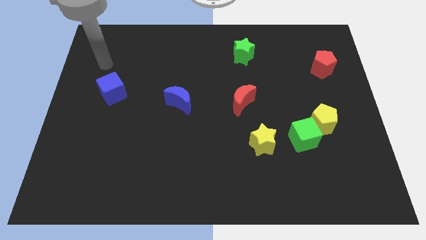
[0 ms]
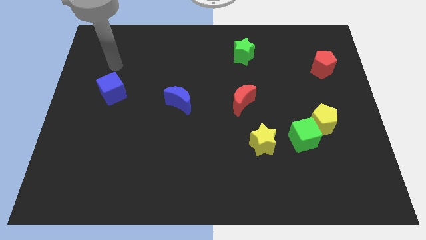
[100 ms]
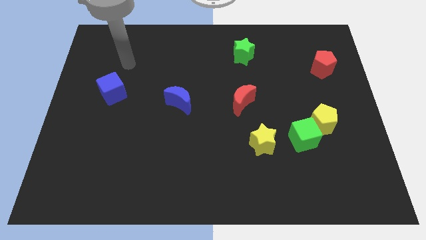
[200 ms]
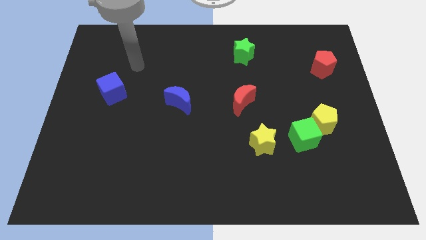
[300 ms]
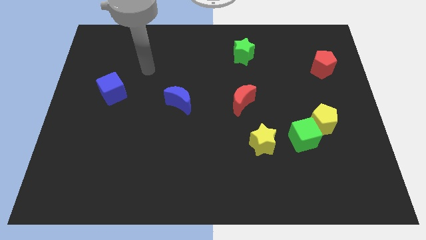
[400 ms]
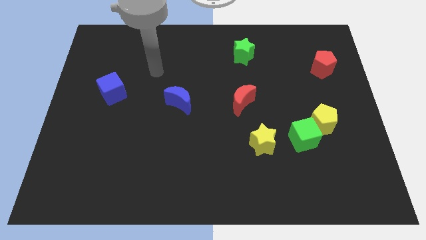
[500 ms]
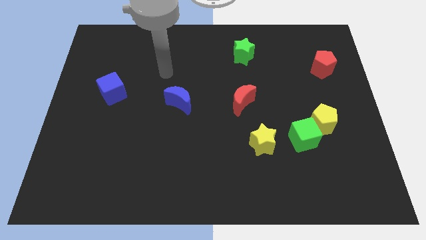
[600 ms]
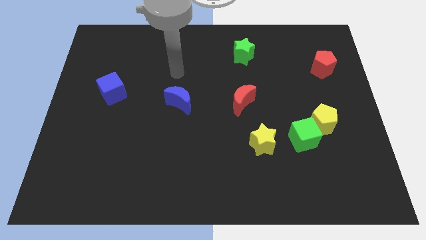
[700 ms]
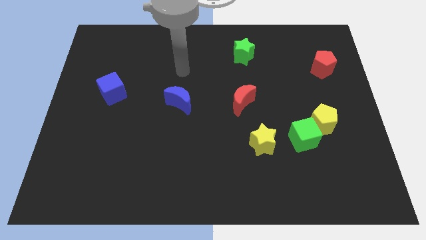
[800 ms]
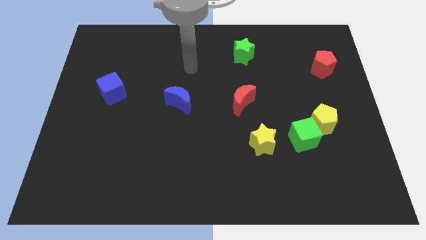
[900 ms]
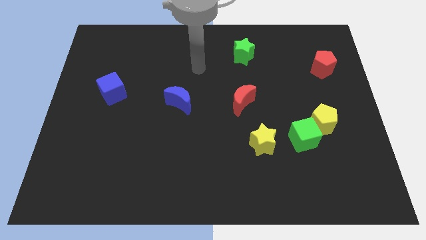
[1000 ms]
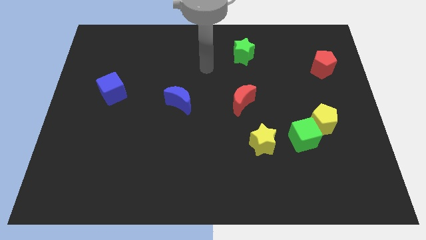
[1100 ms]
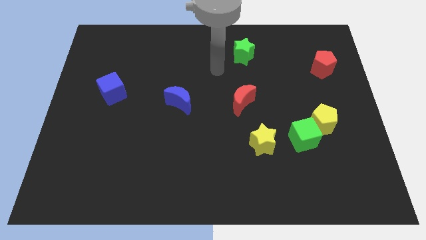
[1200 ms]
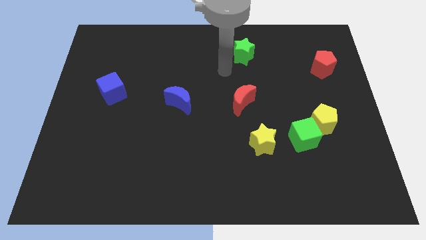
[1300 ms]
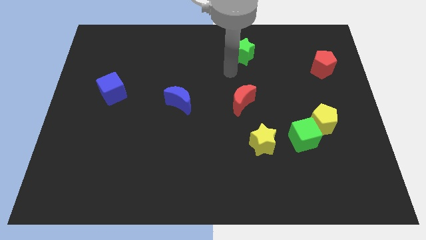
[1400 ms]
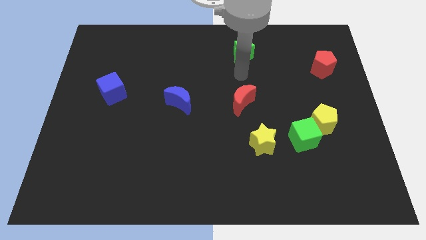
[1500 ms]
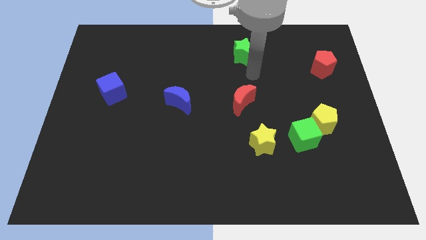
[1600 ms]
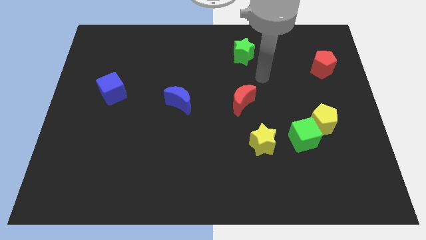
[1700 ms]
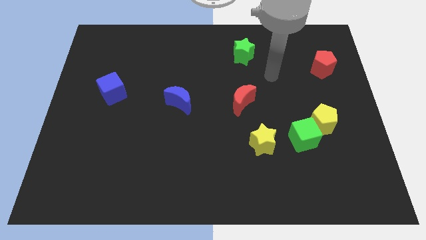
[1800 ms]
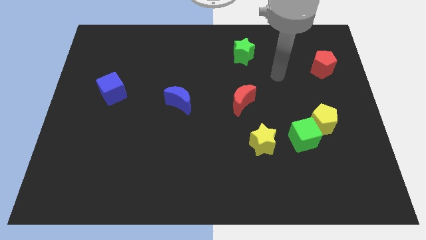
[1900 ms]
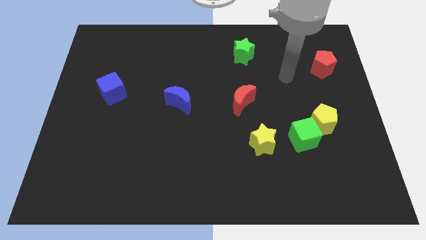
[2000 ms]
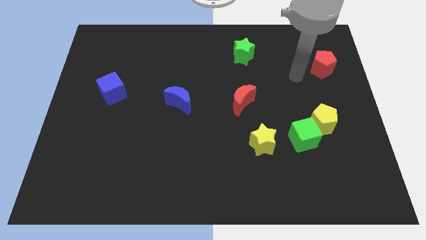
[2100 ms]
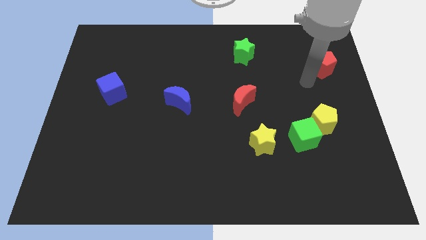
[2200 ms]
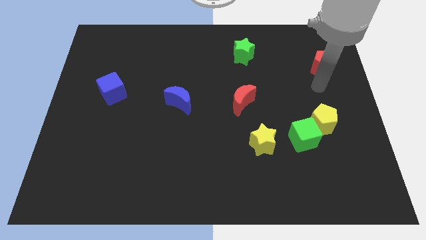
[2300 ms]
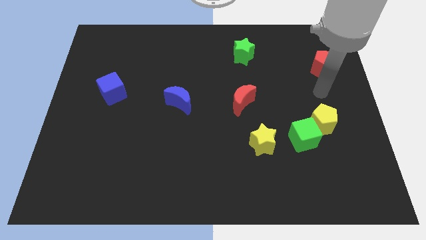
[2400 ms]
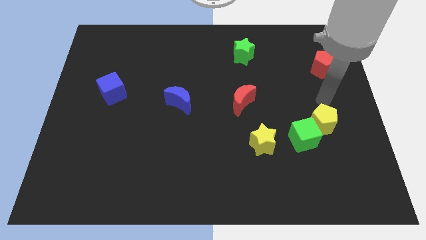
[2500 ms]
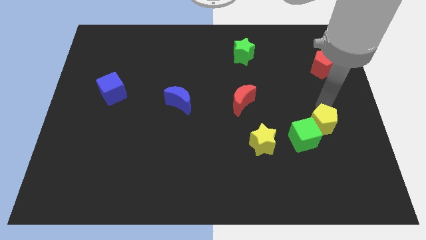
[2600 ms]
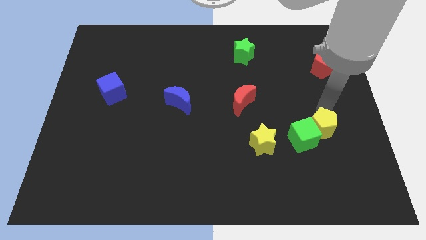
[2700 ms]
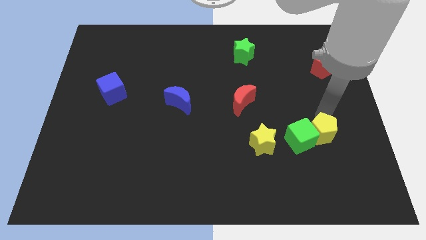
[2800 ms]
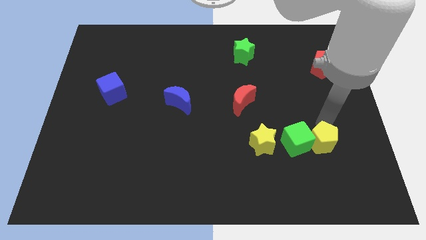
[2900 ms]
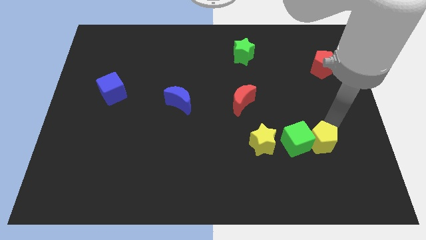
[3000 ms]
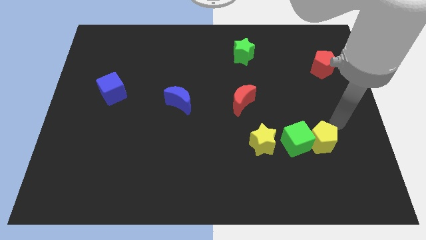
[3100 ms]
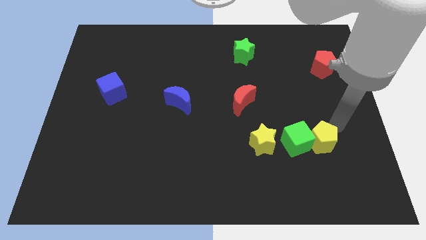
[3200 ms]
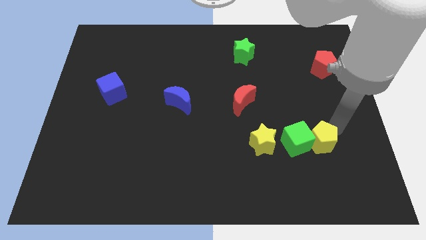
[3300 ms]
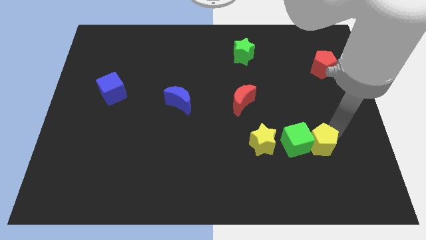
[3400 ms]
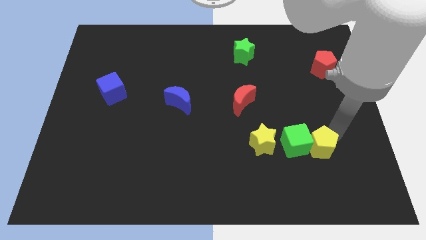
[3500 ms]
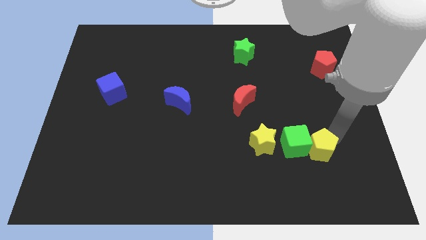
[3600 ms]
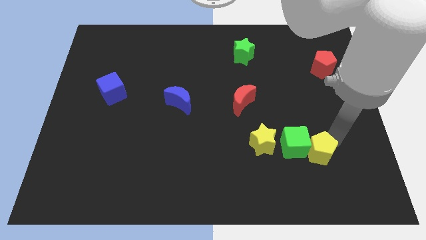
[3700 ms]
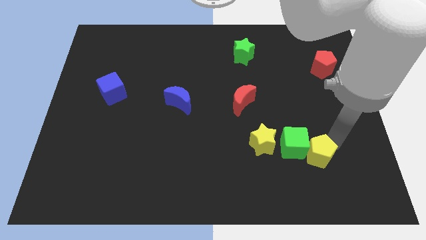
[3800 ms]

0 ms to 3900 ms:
slightly move the yellow pentagon down and then to the left

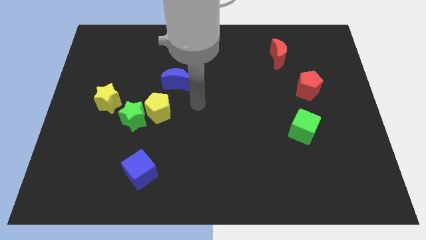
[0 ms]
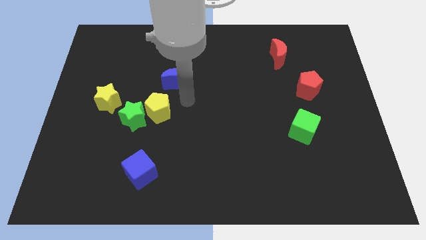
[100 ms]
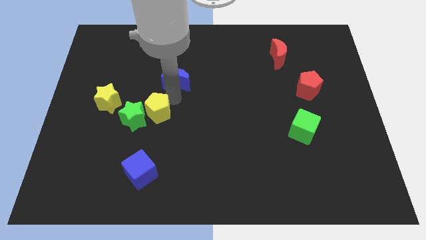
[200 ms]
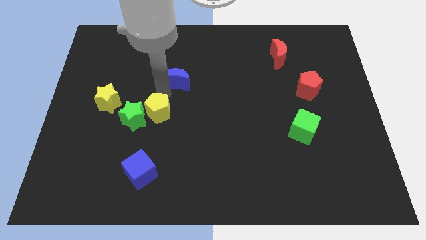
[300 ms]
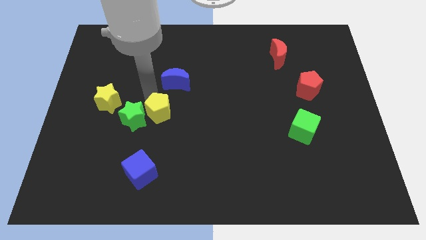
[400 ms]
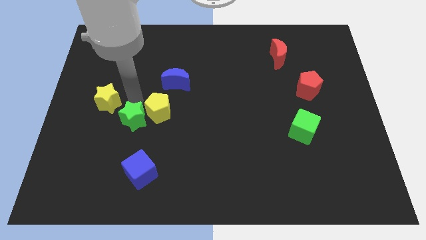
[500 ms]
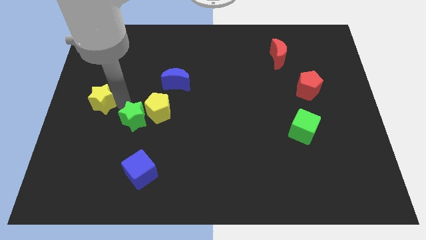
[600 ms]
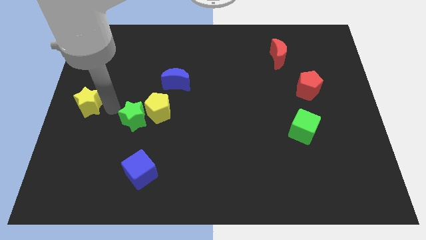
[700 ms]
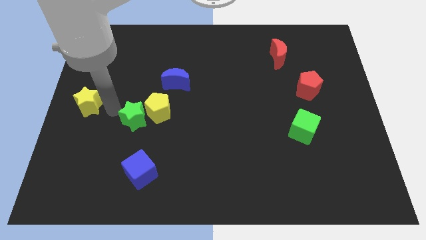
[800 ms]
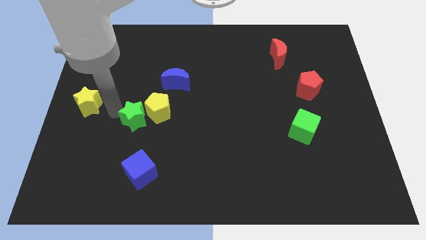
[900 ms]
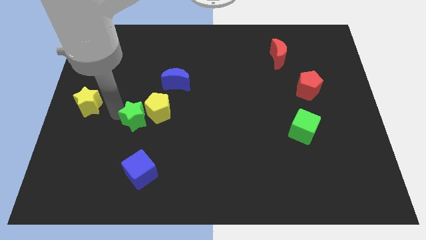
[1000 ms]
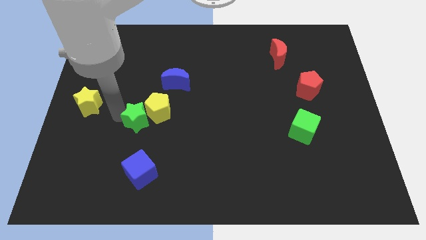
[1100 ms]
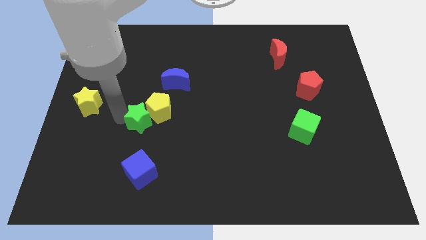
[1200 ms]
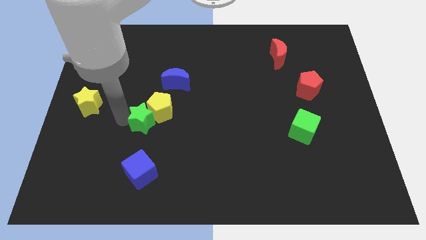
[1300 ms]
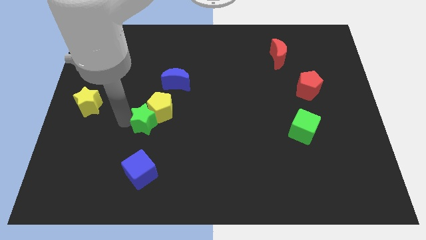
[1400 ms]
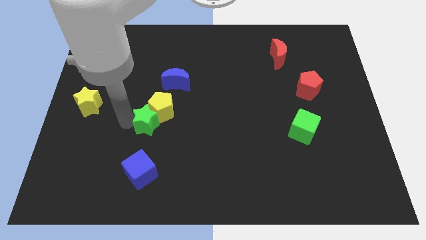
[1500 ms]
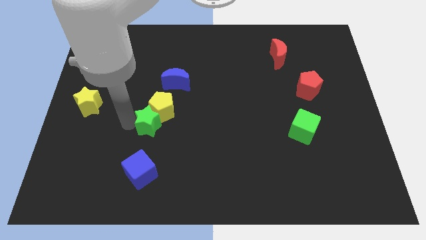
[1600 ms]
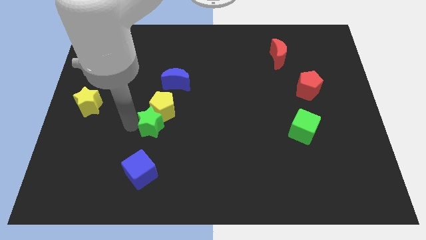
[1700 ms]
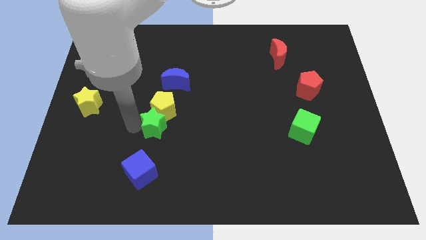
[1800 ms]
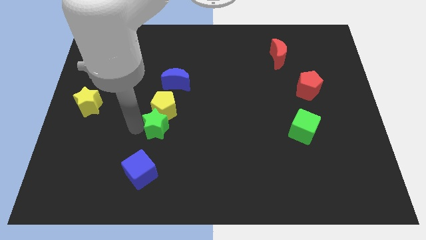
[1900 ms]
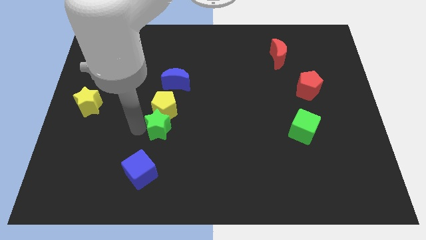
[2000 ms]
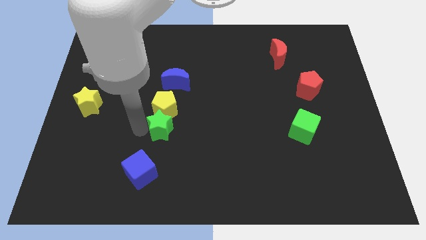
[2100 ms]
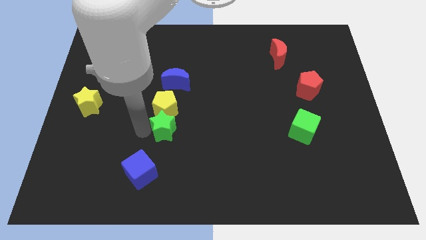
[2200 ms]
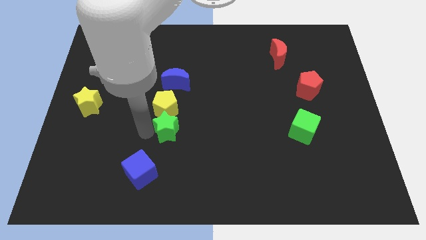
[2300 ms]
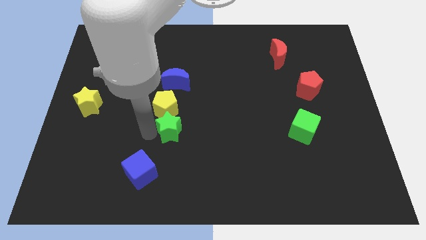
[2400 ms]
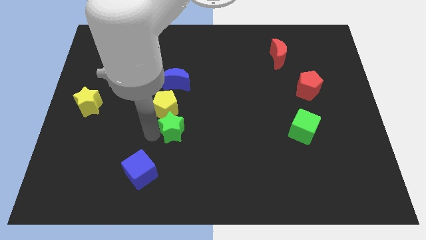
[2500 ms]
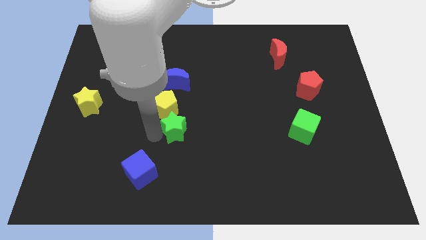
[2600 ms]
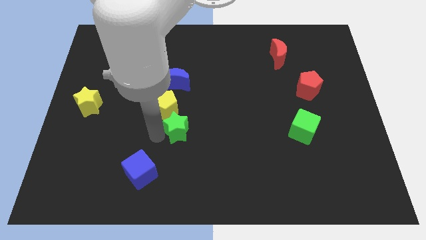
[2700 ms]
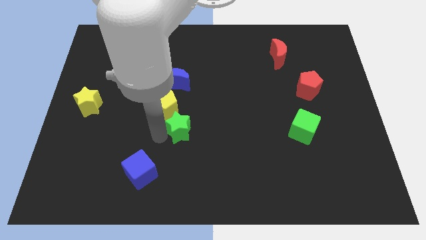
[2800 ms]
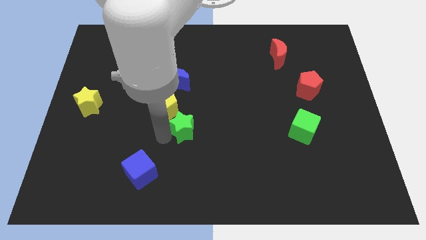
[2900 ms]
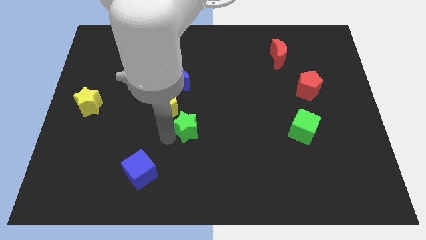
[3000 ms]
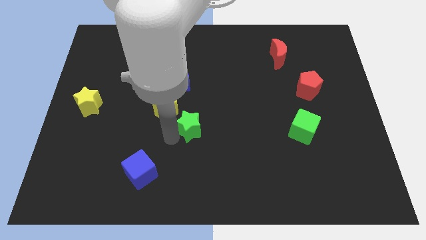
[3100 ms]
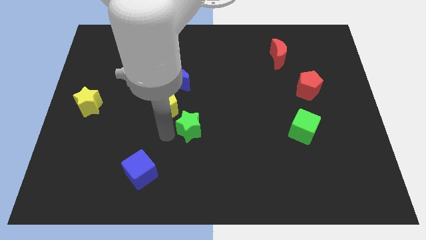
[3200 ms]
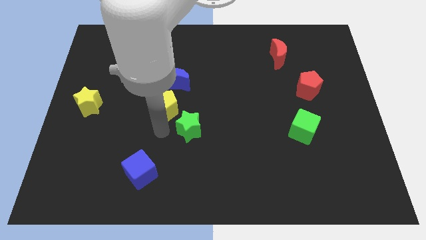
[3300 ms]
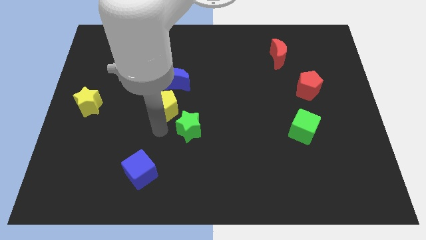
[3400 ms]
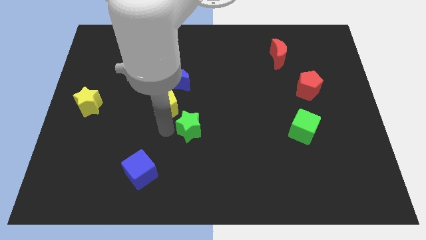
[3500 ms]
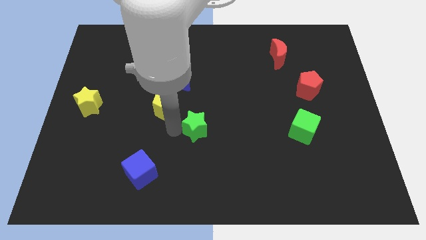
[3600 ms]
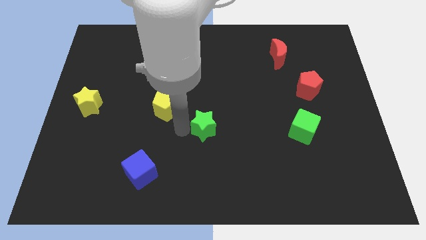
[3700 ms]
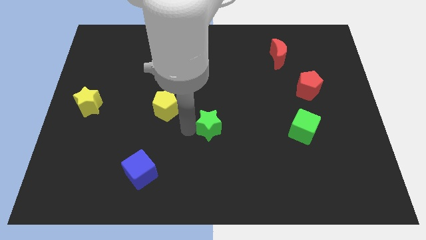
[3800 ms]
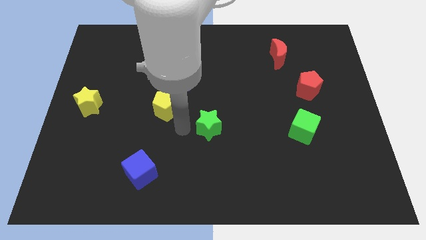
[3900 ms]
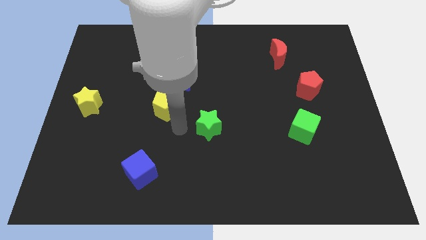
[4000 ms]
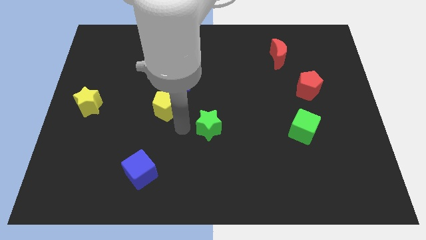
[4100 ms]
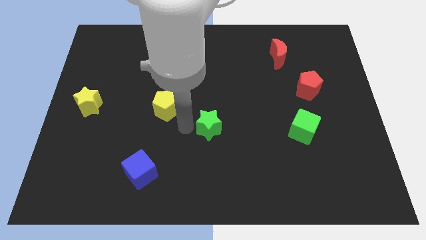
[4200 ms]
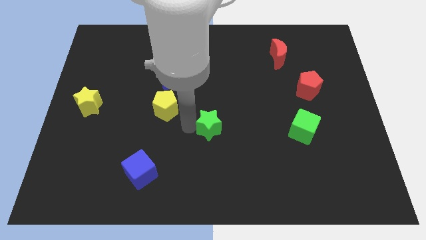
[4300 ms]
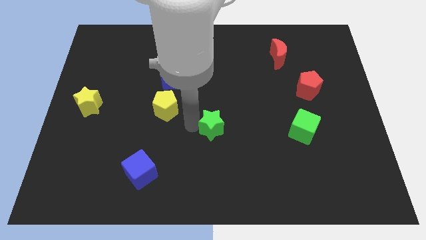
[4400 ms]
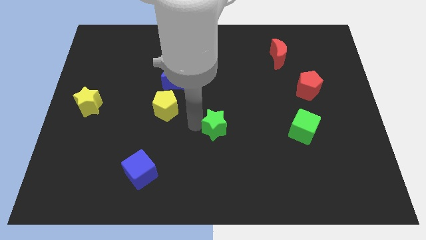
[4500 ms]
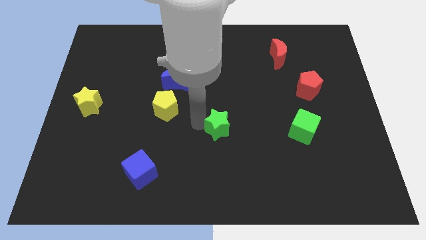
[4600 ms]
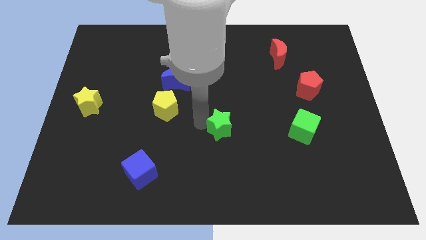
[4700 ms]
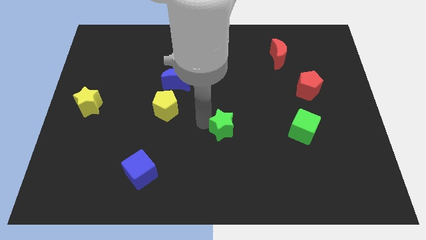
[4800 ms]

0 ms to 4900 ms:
push the green star right
